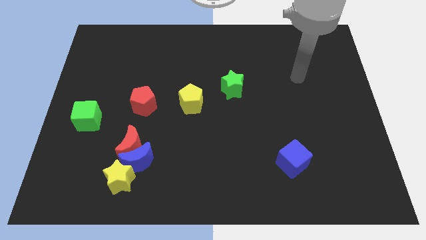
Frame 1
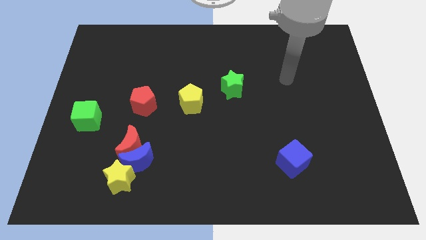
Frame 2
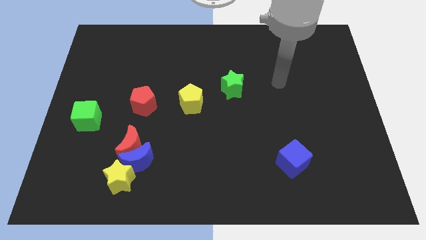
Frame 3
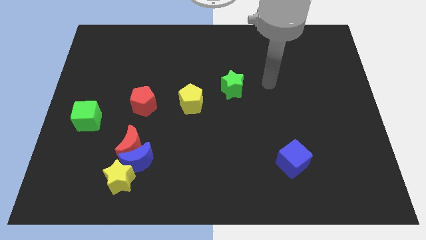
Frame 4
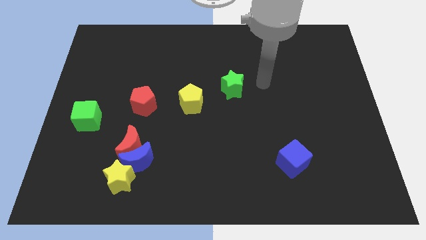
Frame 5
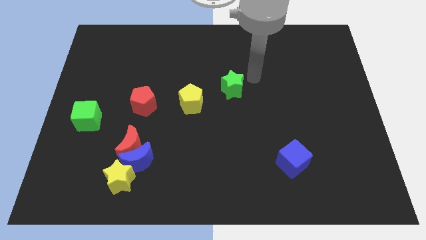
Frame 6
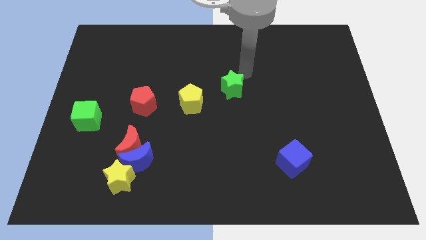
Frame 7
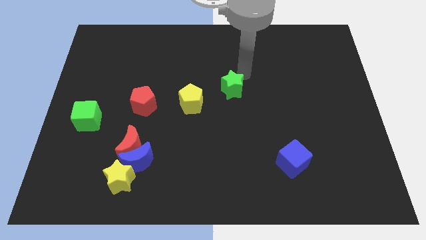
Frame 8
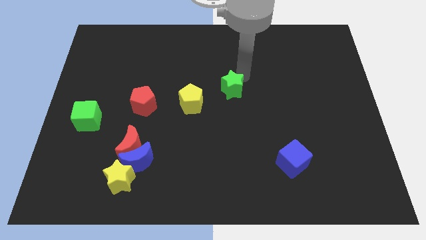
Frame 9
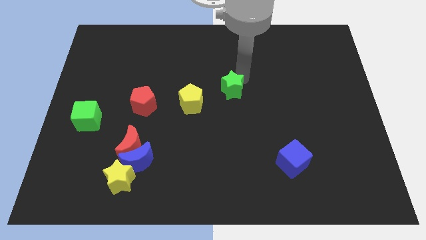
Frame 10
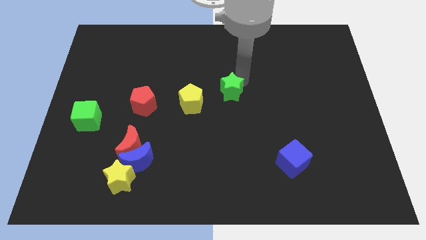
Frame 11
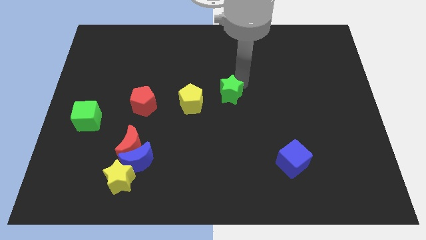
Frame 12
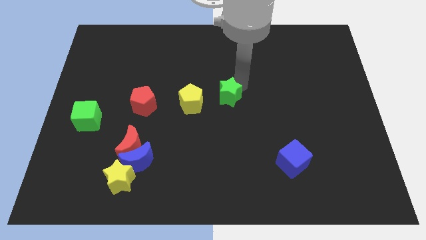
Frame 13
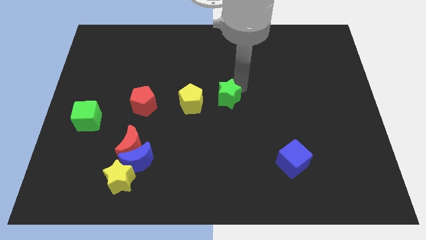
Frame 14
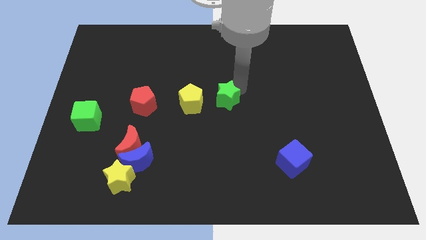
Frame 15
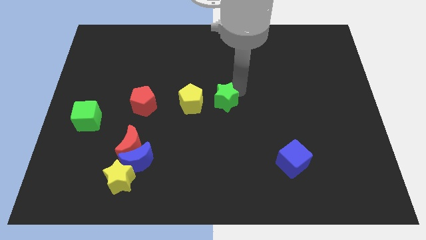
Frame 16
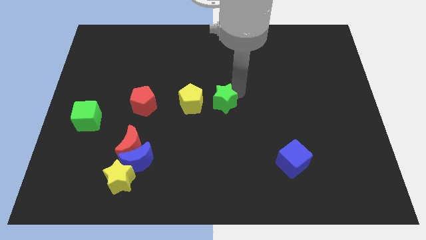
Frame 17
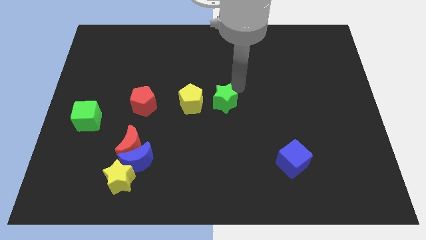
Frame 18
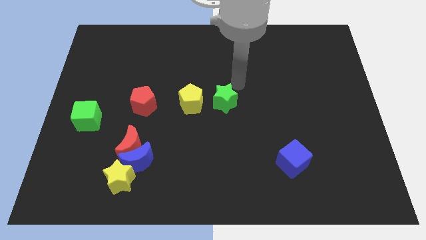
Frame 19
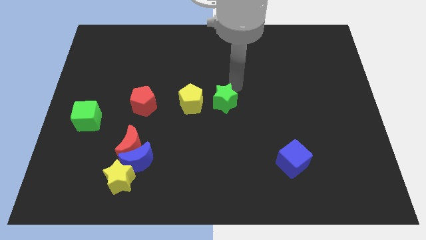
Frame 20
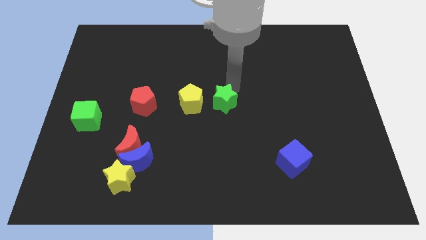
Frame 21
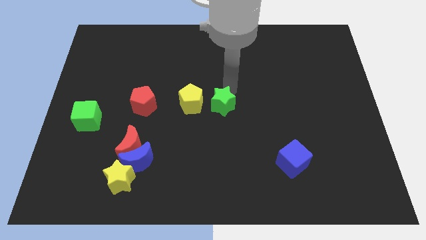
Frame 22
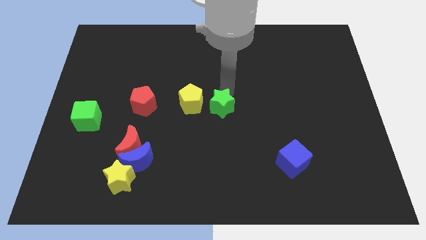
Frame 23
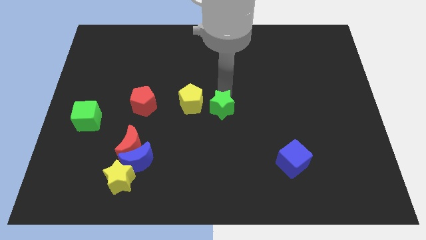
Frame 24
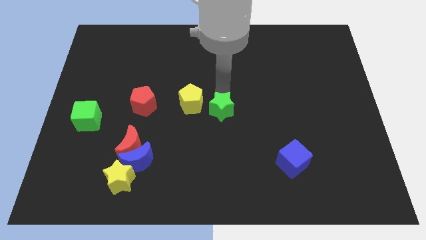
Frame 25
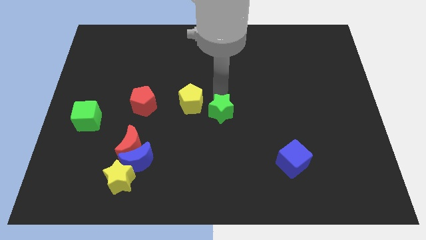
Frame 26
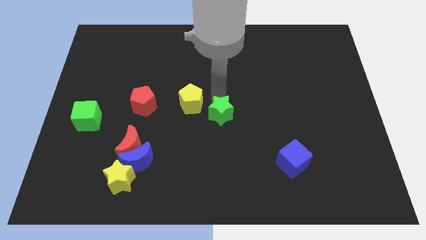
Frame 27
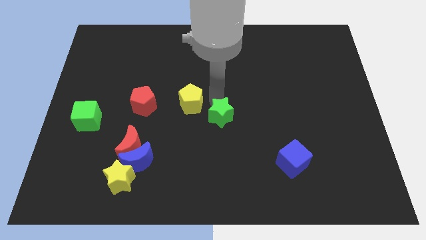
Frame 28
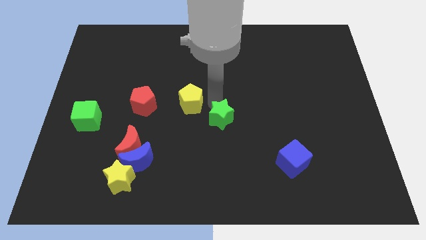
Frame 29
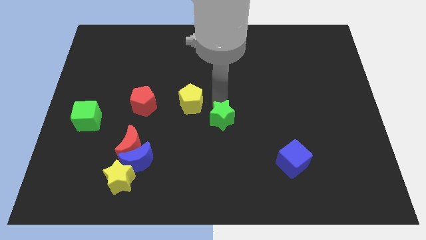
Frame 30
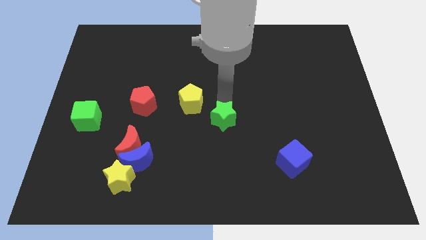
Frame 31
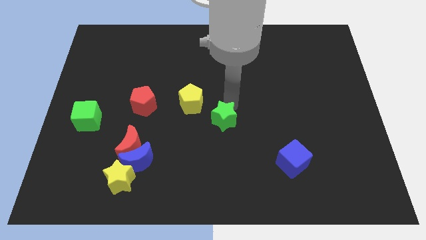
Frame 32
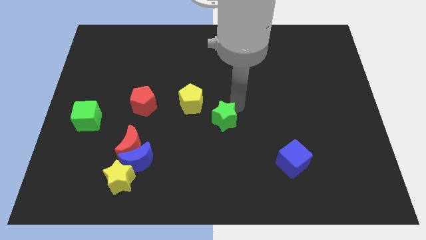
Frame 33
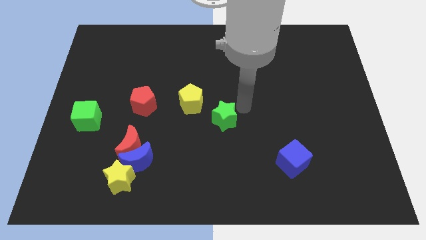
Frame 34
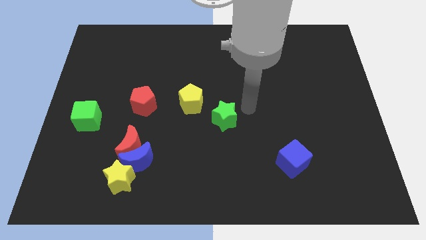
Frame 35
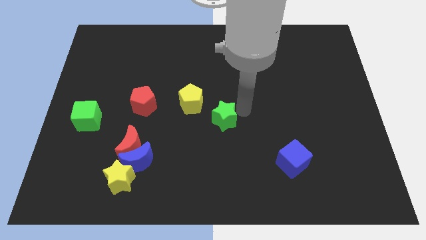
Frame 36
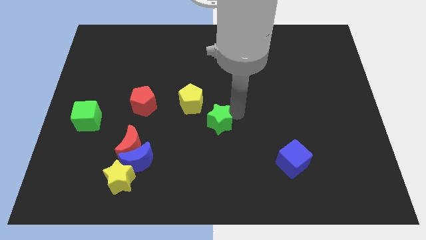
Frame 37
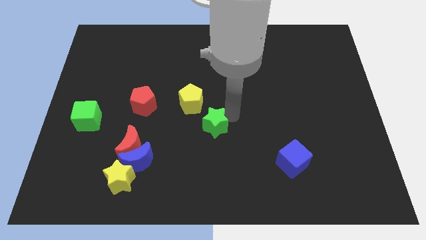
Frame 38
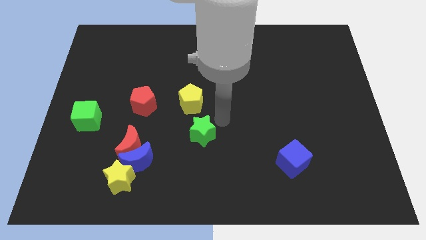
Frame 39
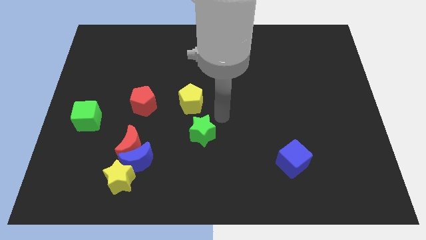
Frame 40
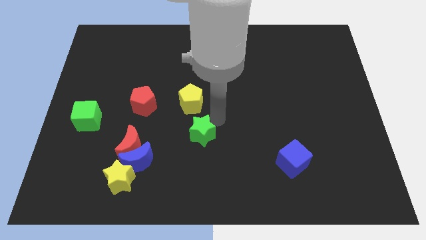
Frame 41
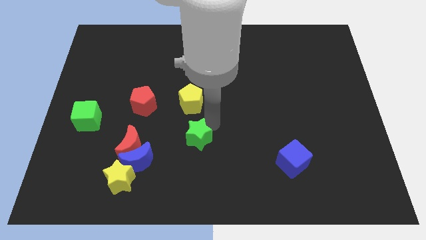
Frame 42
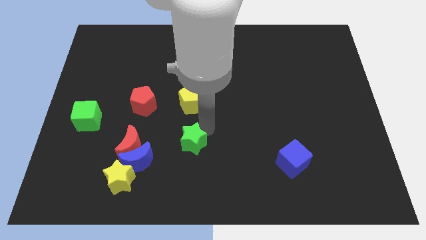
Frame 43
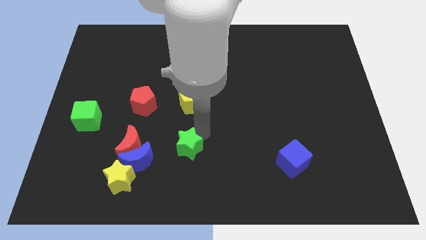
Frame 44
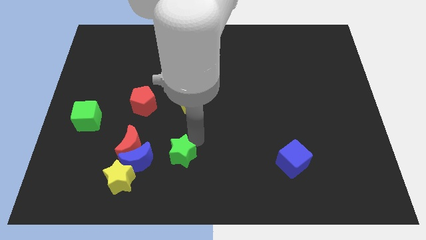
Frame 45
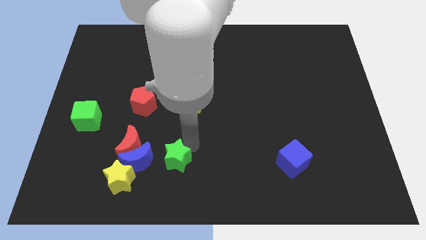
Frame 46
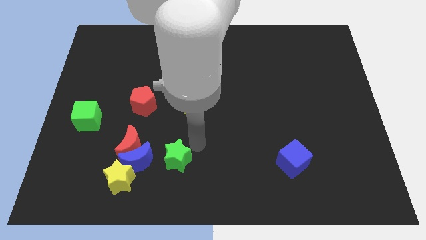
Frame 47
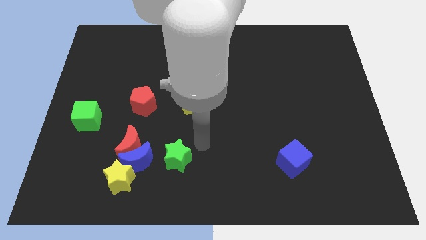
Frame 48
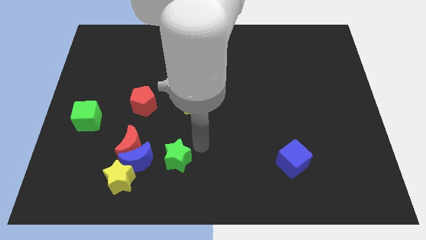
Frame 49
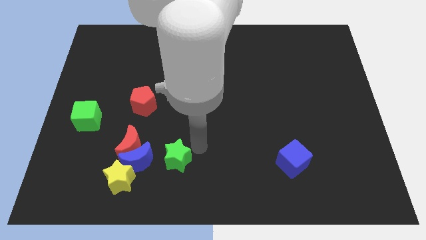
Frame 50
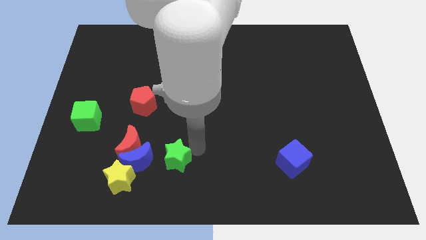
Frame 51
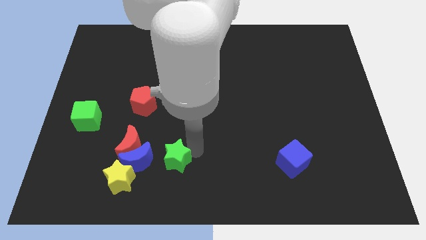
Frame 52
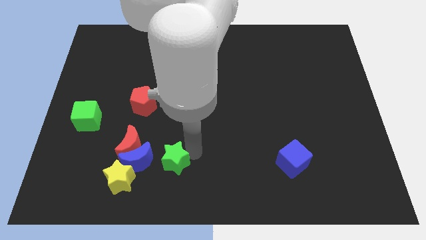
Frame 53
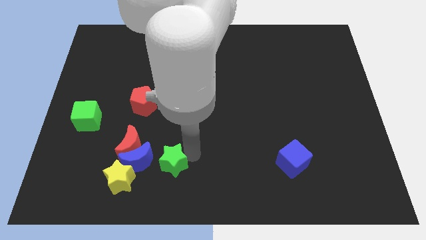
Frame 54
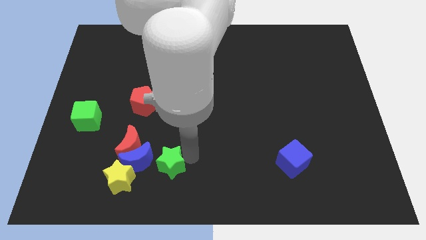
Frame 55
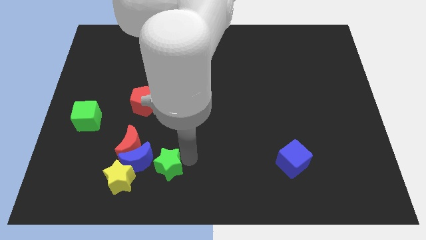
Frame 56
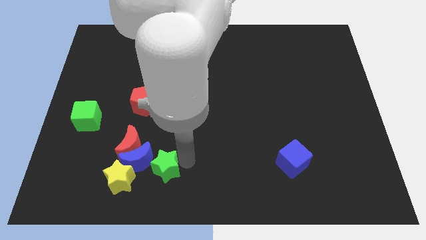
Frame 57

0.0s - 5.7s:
push the green star close to the blue moon

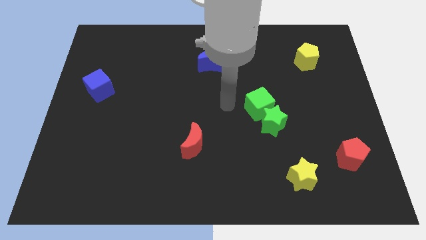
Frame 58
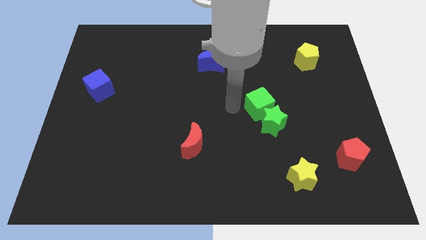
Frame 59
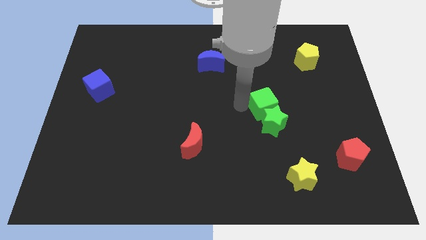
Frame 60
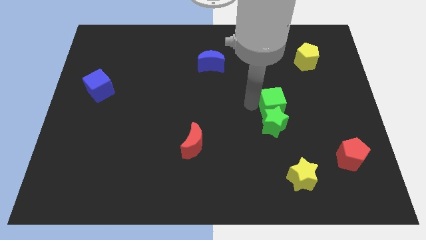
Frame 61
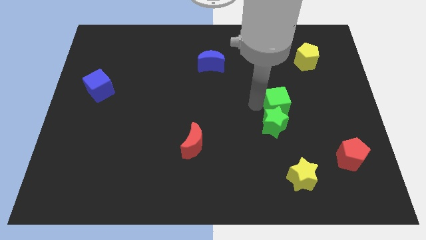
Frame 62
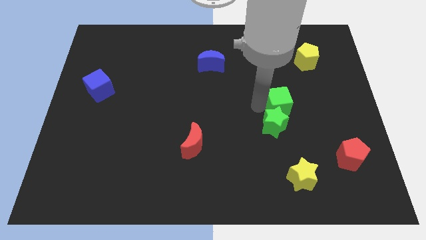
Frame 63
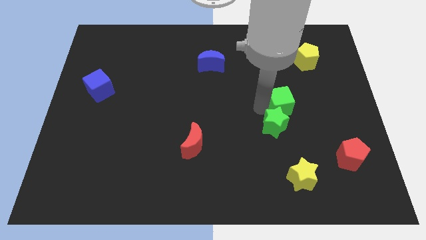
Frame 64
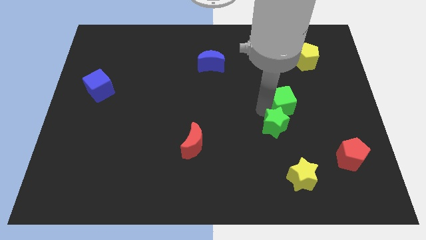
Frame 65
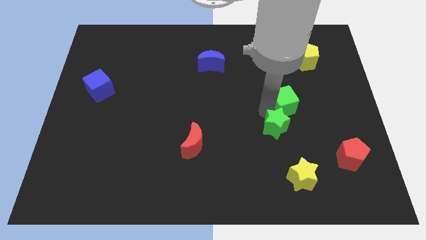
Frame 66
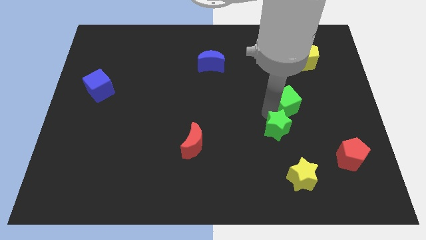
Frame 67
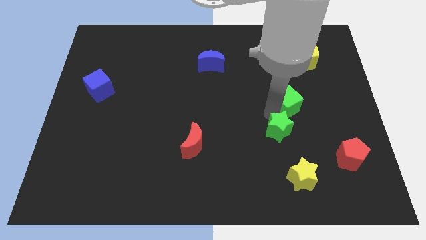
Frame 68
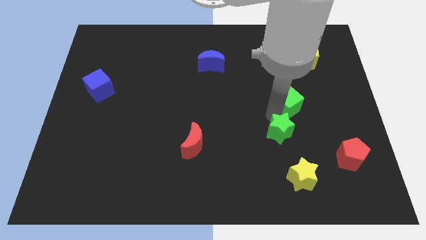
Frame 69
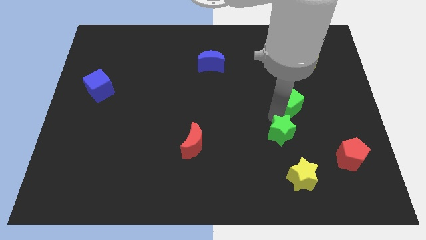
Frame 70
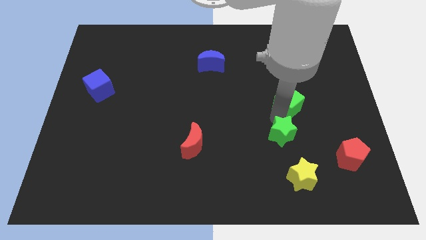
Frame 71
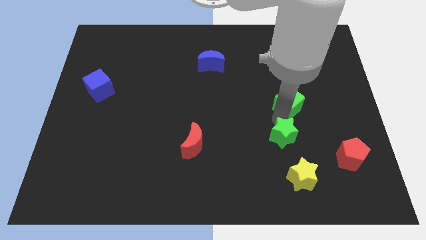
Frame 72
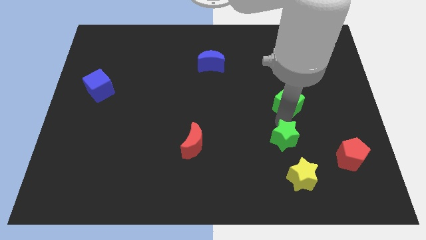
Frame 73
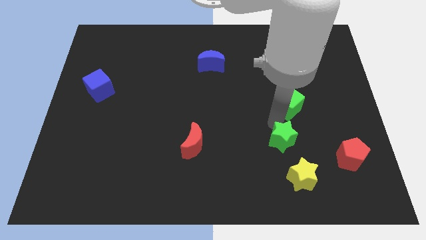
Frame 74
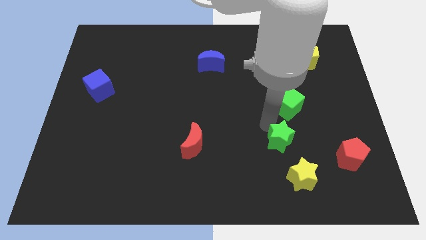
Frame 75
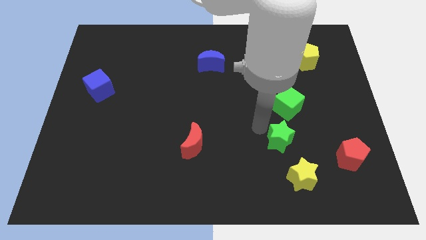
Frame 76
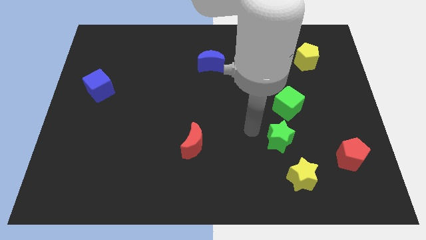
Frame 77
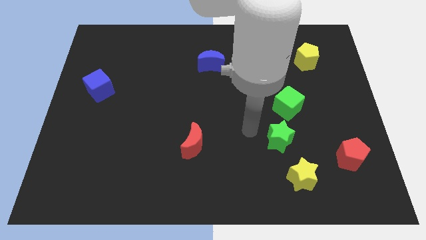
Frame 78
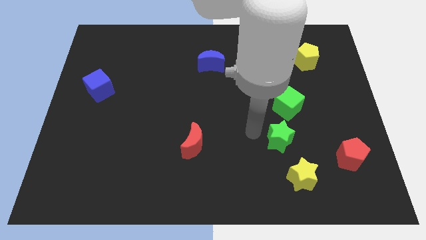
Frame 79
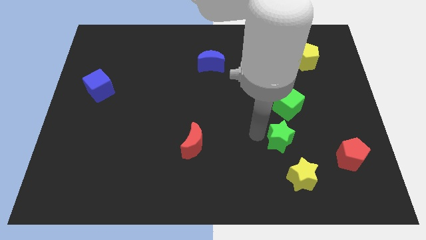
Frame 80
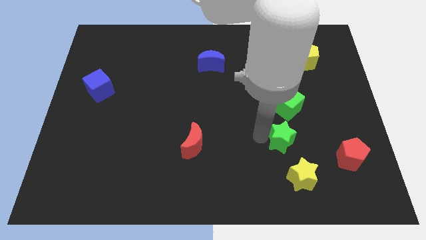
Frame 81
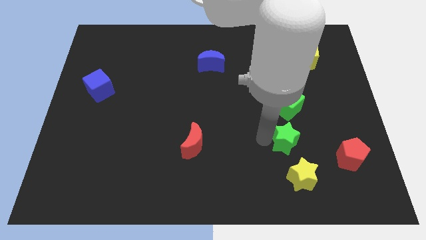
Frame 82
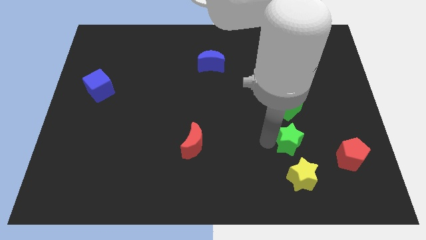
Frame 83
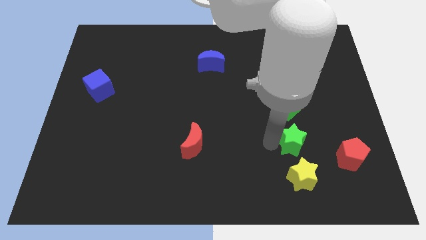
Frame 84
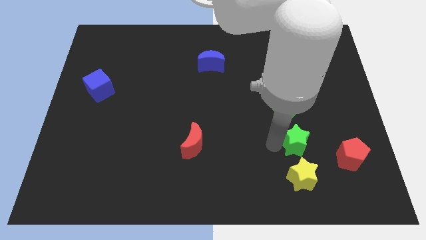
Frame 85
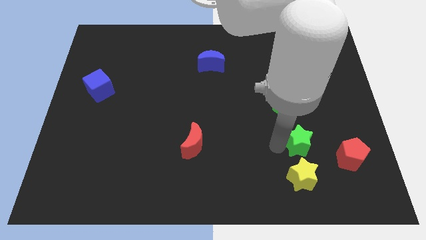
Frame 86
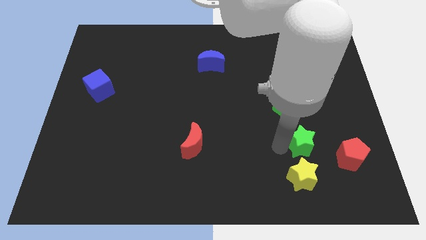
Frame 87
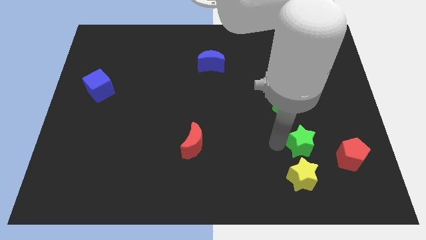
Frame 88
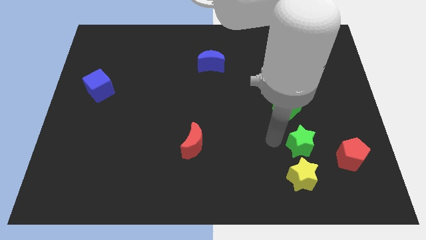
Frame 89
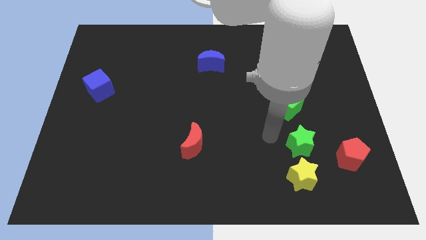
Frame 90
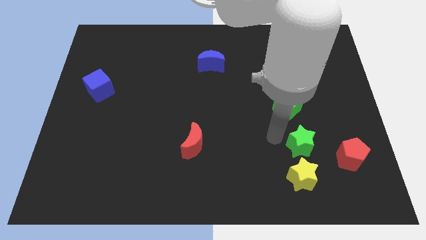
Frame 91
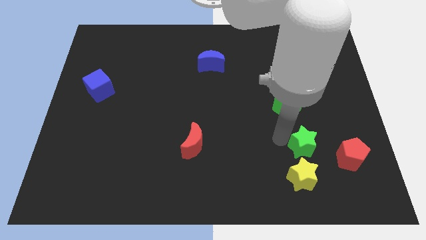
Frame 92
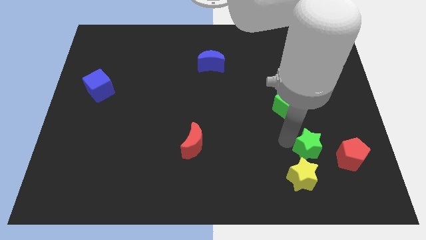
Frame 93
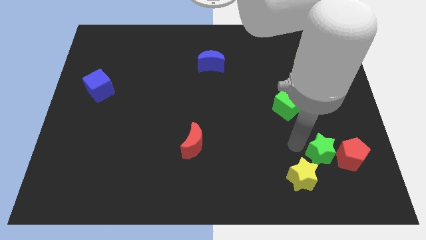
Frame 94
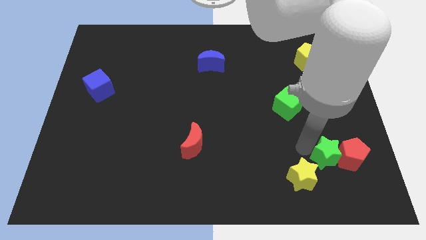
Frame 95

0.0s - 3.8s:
slide the green star towards the red pentagon
